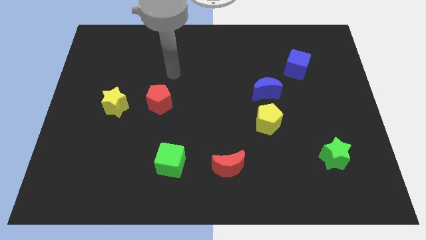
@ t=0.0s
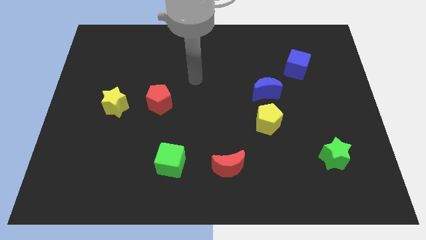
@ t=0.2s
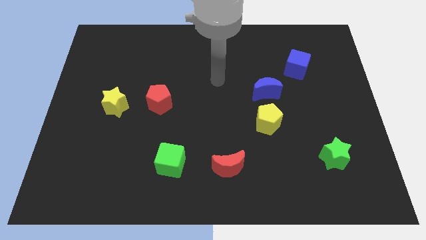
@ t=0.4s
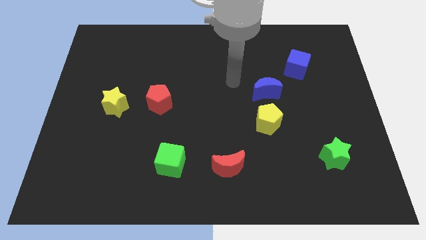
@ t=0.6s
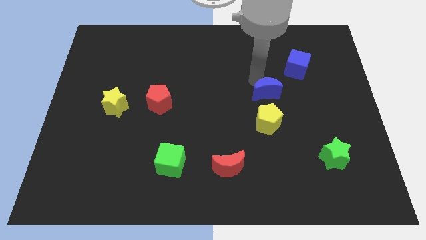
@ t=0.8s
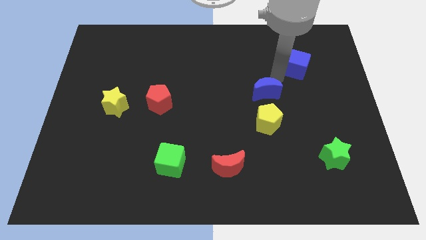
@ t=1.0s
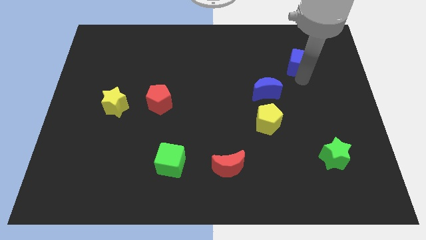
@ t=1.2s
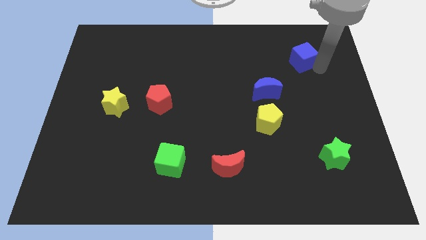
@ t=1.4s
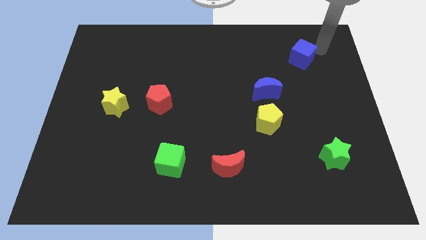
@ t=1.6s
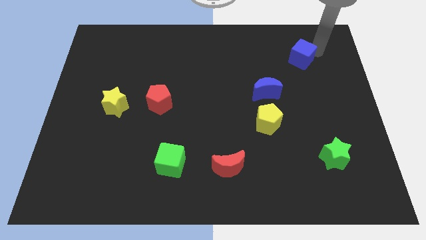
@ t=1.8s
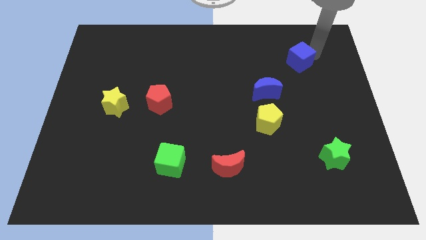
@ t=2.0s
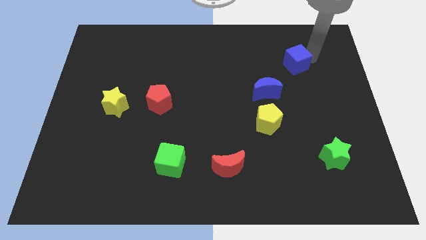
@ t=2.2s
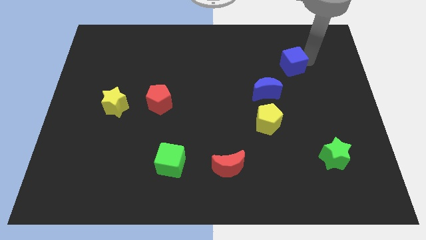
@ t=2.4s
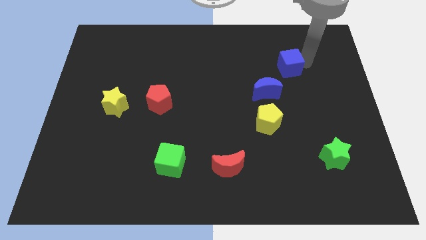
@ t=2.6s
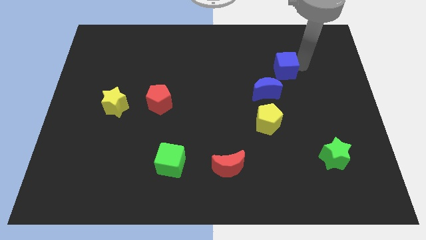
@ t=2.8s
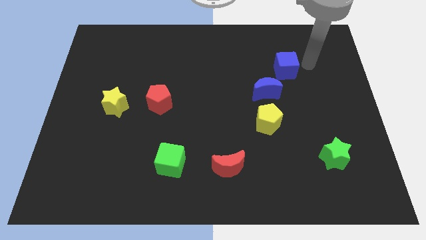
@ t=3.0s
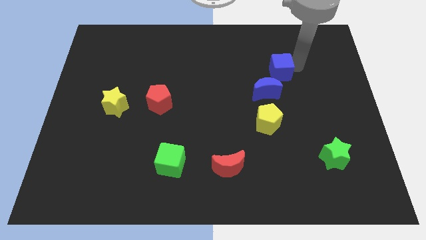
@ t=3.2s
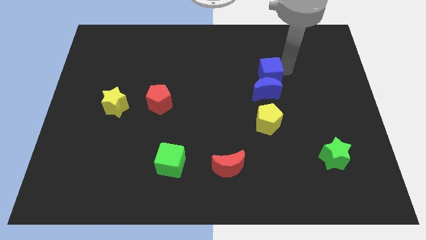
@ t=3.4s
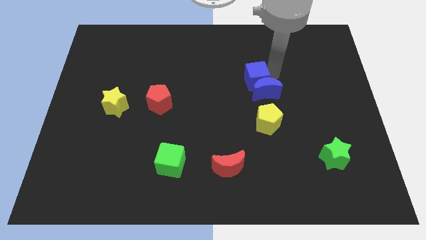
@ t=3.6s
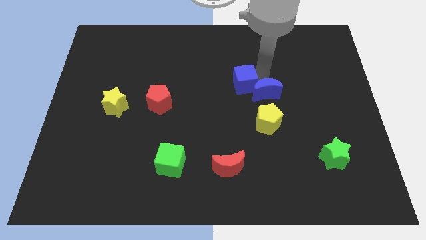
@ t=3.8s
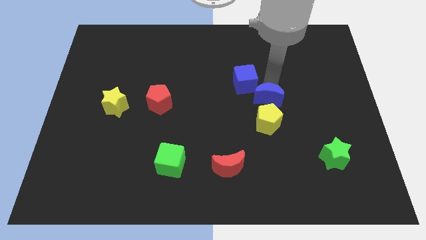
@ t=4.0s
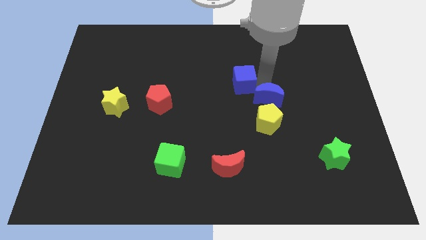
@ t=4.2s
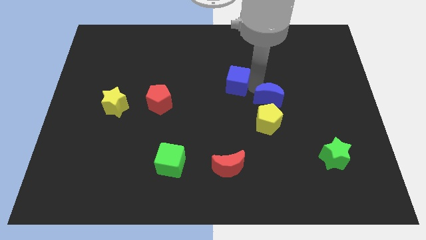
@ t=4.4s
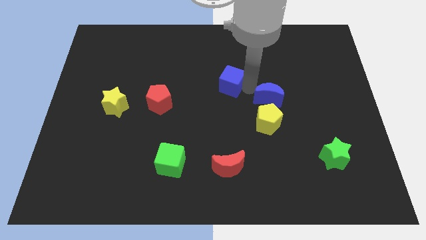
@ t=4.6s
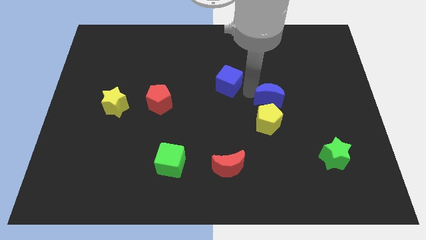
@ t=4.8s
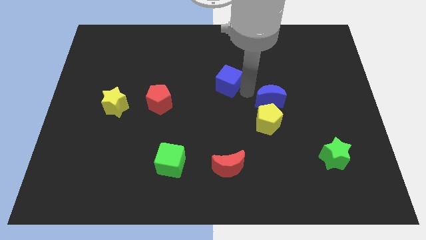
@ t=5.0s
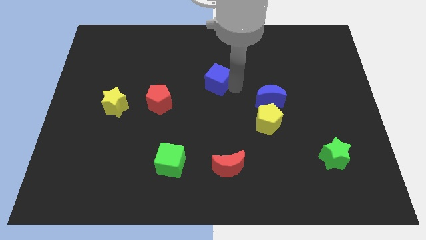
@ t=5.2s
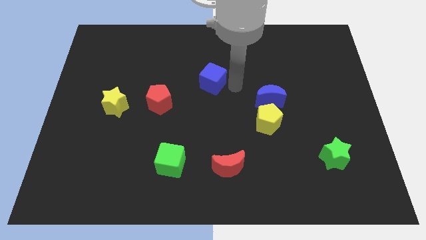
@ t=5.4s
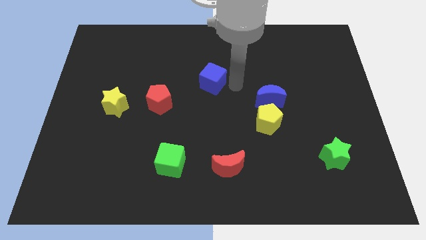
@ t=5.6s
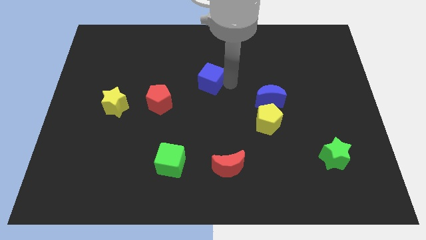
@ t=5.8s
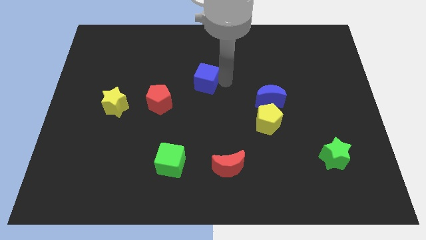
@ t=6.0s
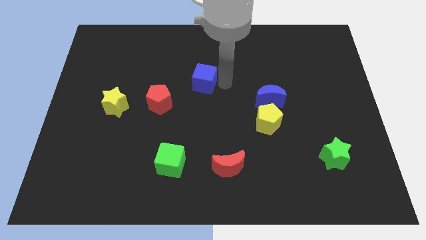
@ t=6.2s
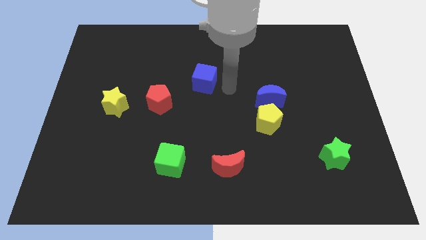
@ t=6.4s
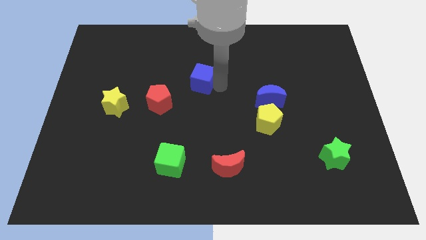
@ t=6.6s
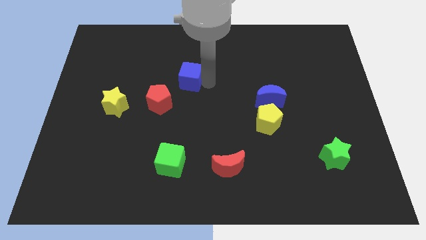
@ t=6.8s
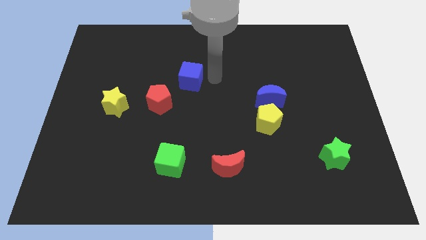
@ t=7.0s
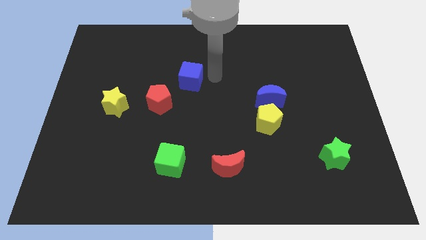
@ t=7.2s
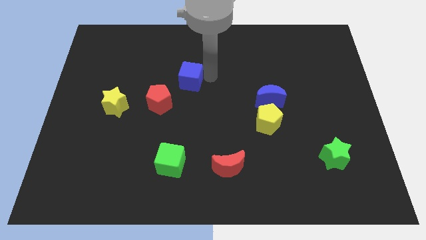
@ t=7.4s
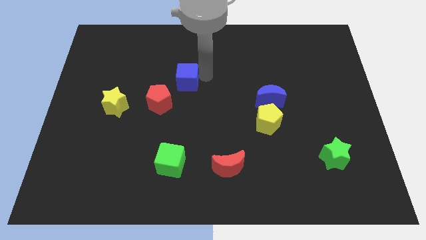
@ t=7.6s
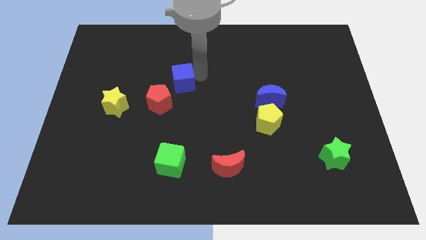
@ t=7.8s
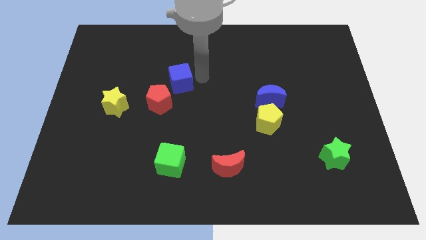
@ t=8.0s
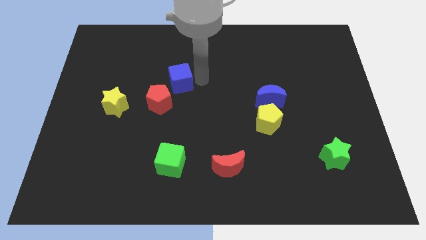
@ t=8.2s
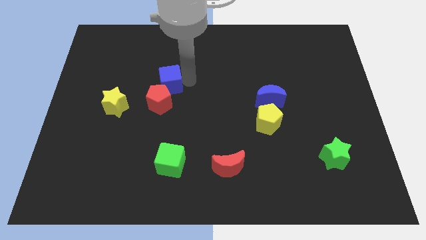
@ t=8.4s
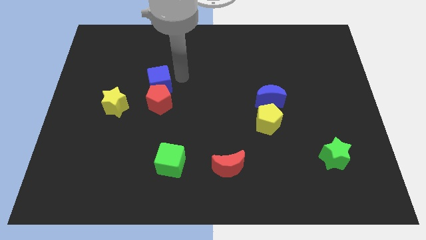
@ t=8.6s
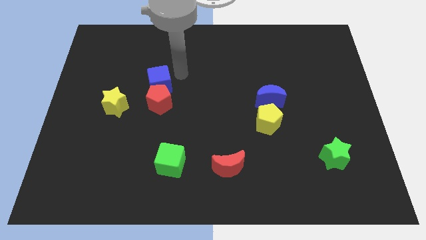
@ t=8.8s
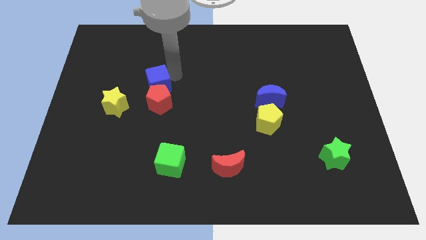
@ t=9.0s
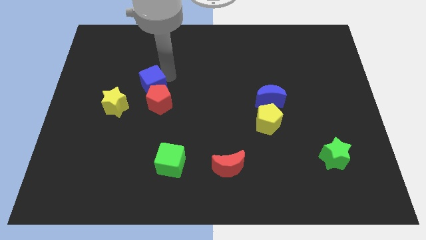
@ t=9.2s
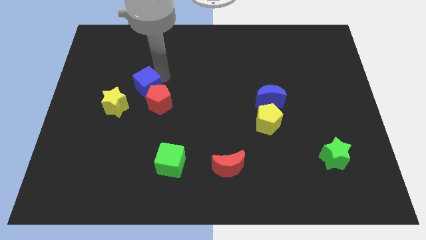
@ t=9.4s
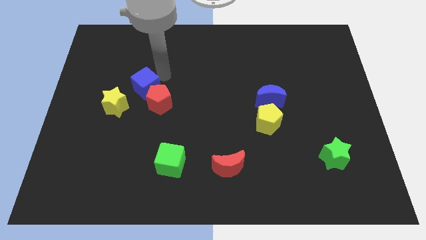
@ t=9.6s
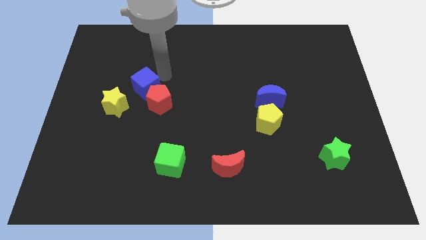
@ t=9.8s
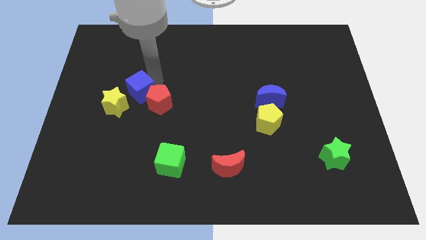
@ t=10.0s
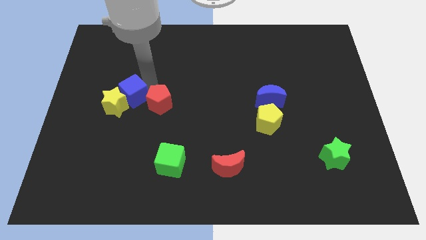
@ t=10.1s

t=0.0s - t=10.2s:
move the blue cube close to the yellow star

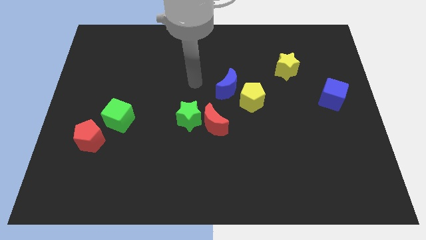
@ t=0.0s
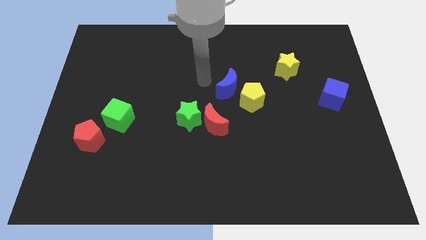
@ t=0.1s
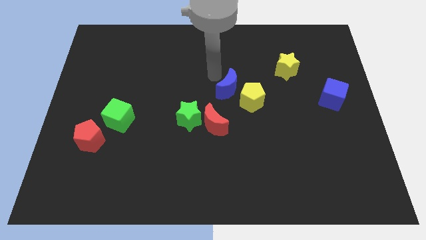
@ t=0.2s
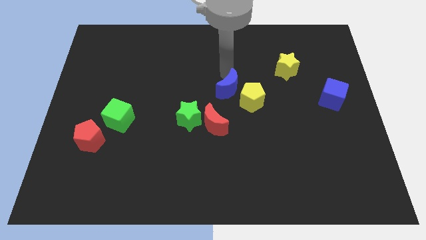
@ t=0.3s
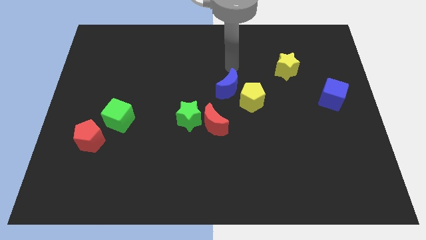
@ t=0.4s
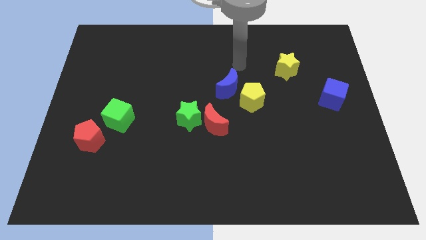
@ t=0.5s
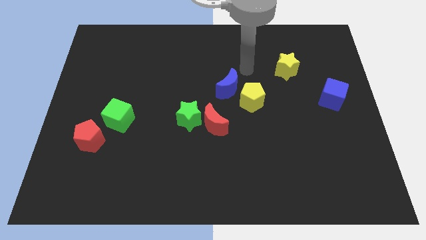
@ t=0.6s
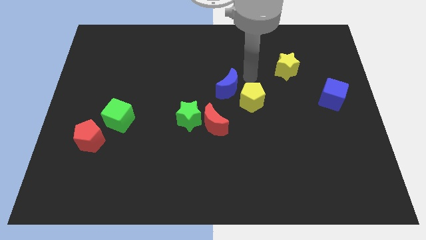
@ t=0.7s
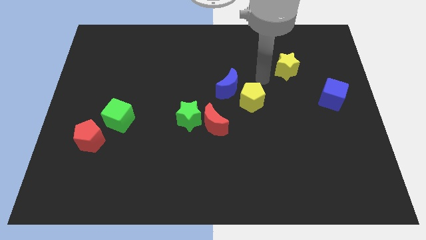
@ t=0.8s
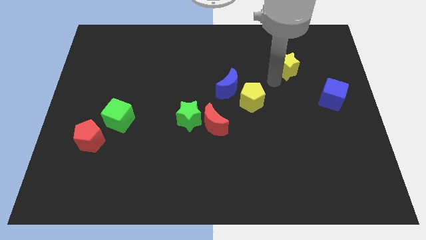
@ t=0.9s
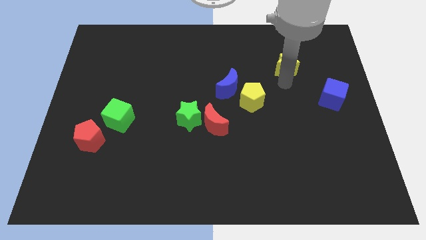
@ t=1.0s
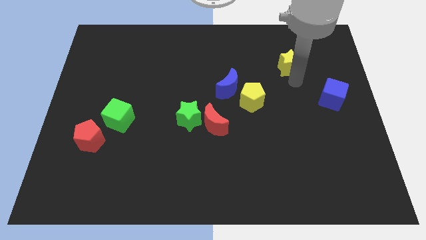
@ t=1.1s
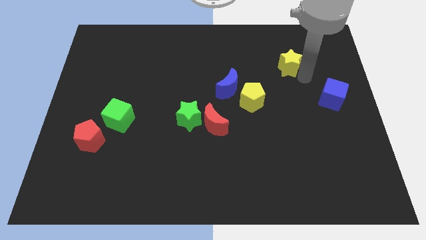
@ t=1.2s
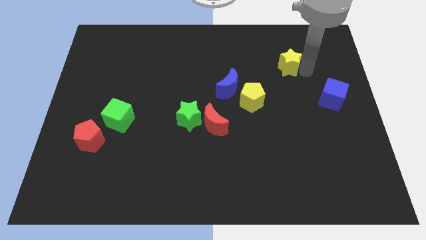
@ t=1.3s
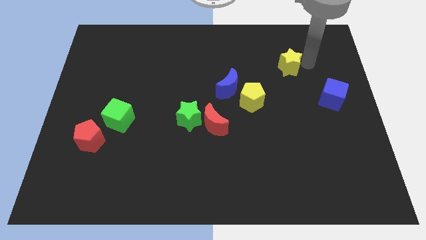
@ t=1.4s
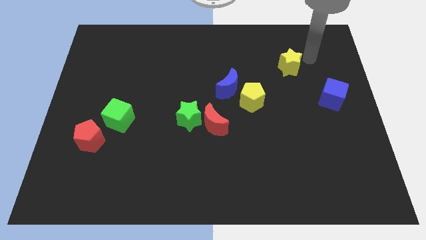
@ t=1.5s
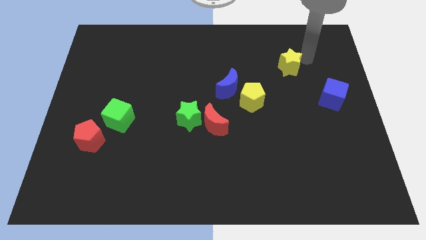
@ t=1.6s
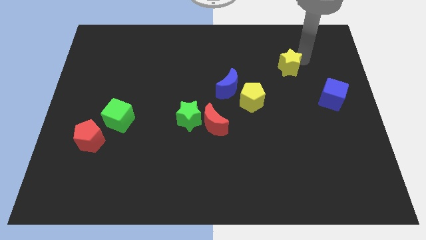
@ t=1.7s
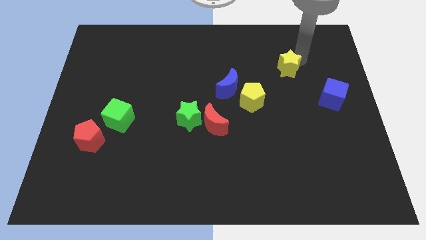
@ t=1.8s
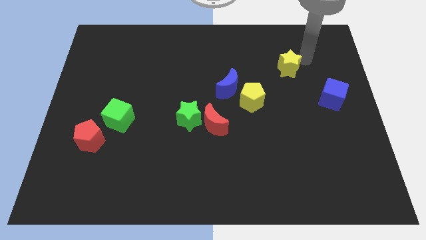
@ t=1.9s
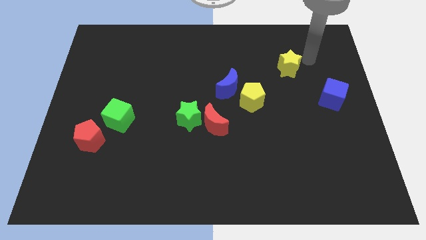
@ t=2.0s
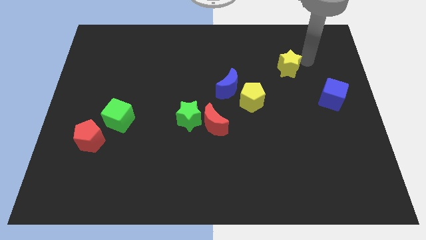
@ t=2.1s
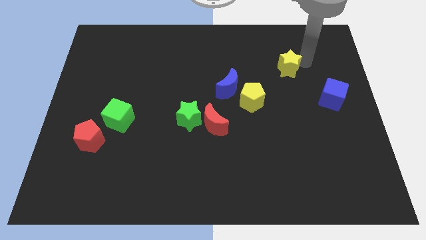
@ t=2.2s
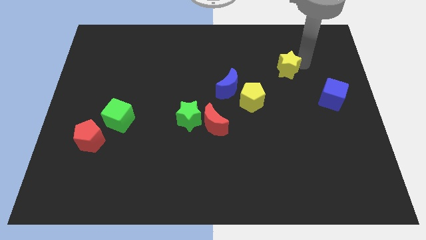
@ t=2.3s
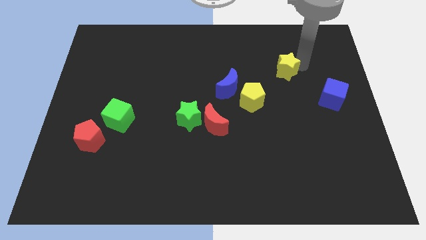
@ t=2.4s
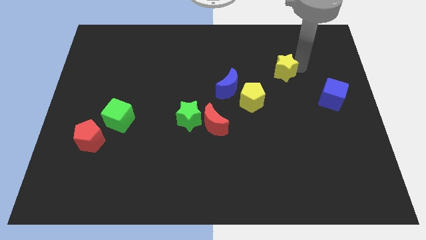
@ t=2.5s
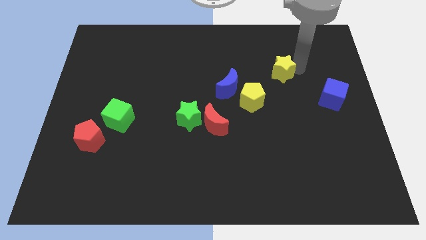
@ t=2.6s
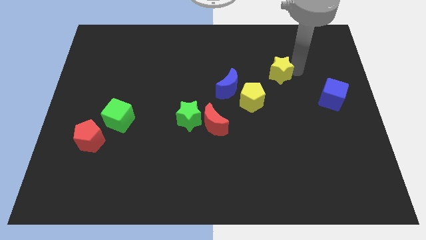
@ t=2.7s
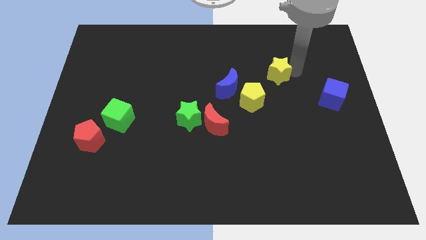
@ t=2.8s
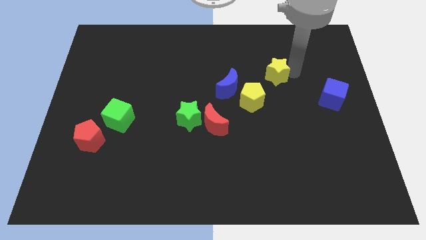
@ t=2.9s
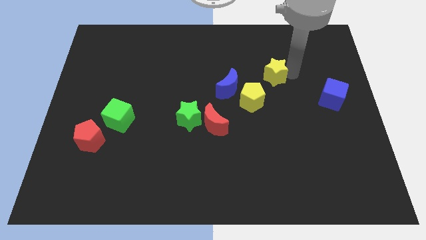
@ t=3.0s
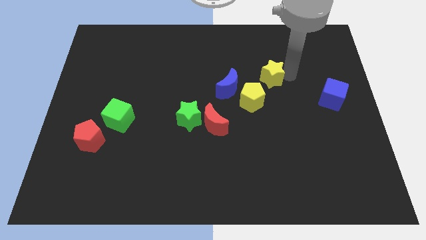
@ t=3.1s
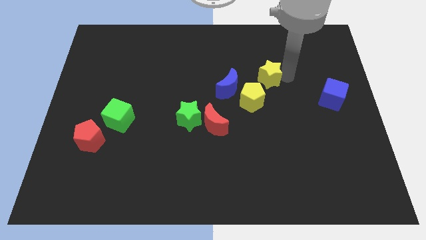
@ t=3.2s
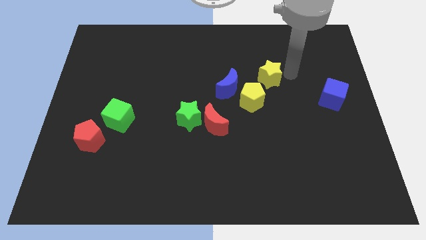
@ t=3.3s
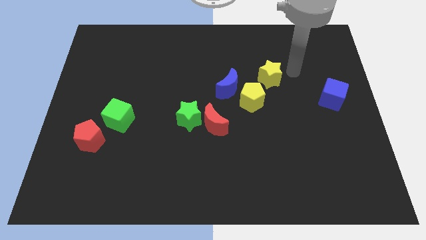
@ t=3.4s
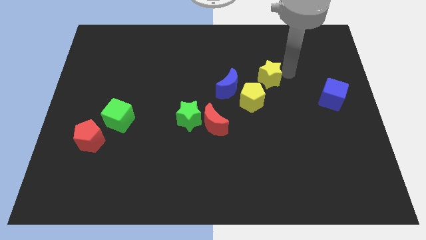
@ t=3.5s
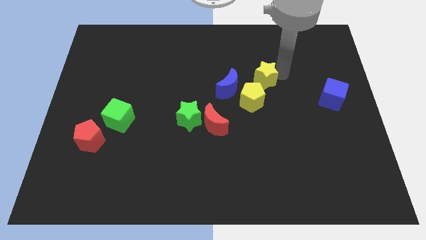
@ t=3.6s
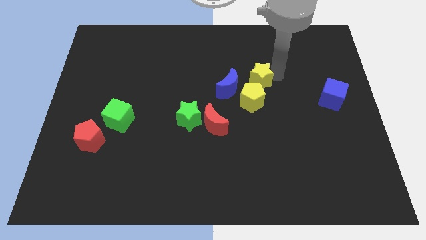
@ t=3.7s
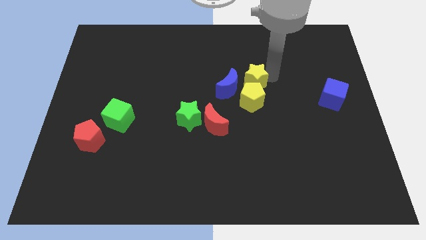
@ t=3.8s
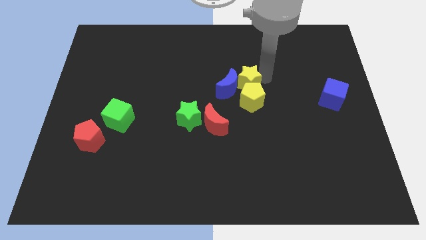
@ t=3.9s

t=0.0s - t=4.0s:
put the yellow star to the blue moon
